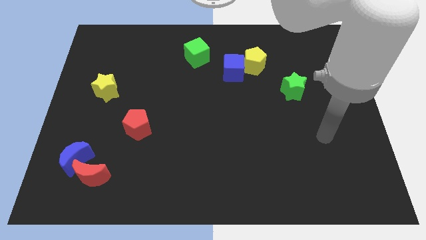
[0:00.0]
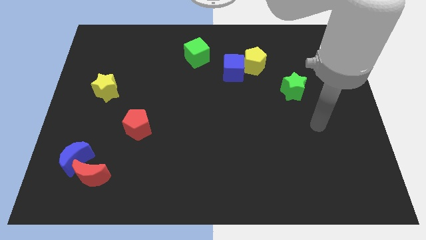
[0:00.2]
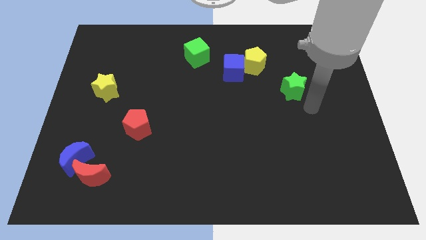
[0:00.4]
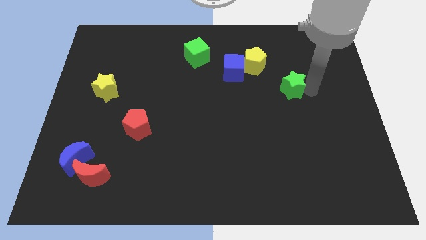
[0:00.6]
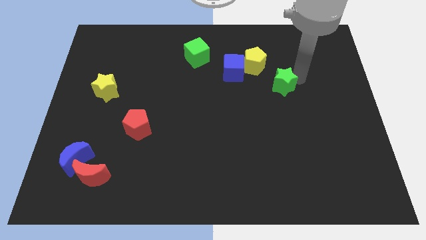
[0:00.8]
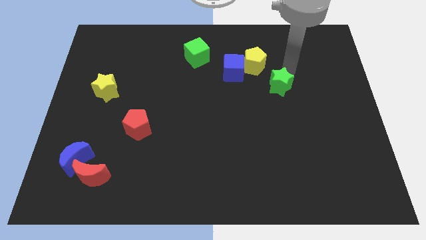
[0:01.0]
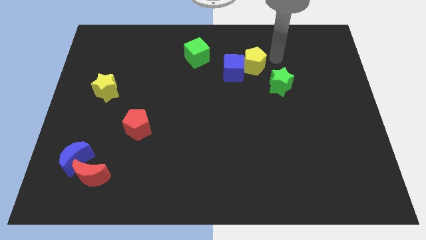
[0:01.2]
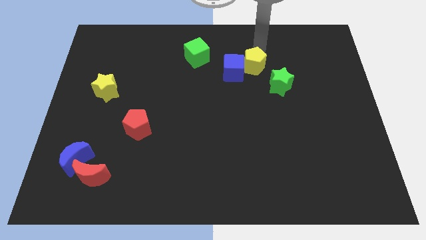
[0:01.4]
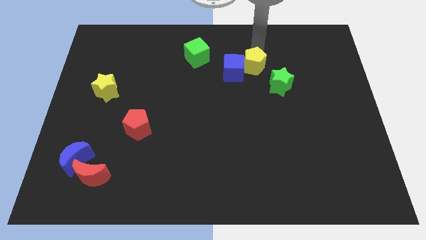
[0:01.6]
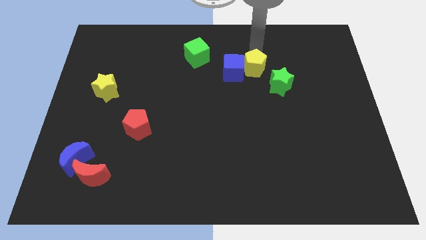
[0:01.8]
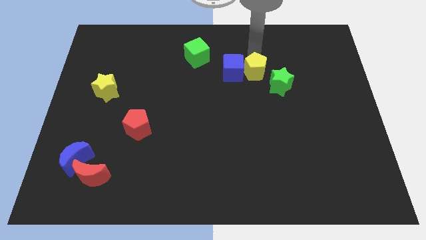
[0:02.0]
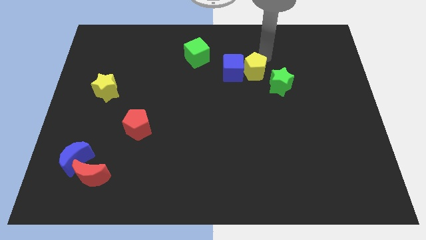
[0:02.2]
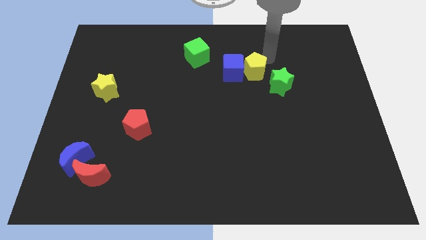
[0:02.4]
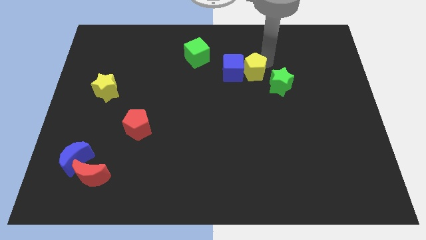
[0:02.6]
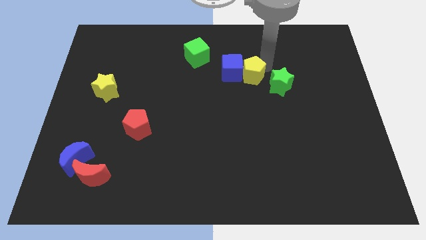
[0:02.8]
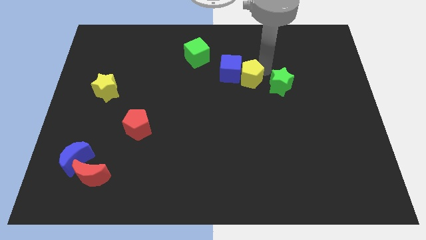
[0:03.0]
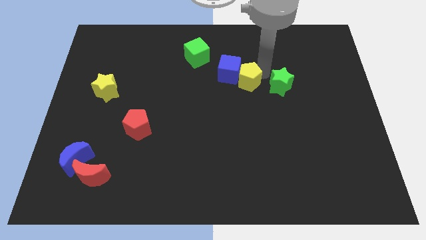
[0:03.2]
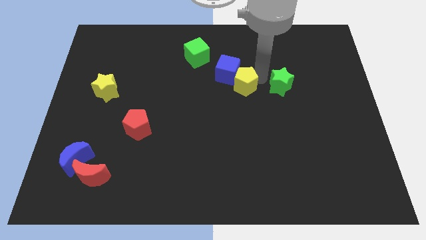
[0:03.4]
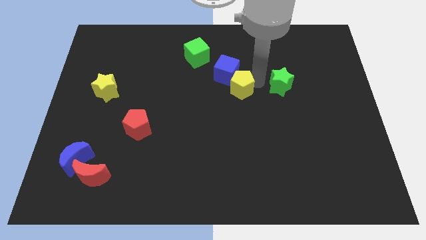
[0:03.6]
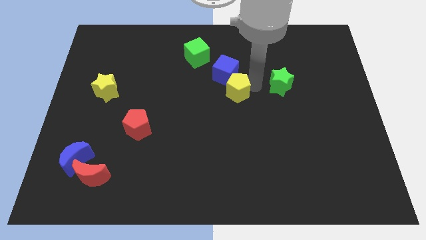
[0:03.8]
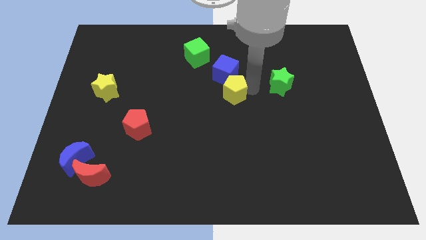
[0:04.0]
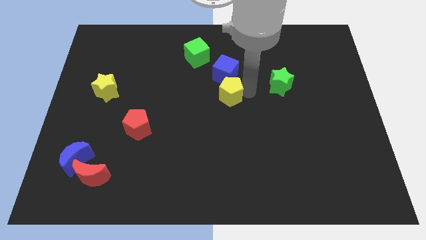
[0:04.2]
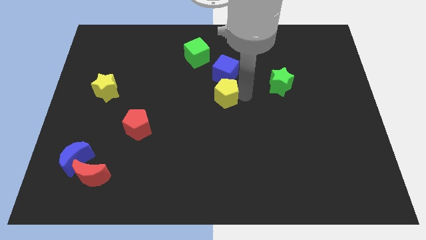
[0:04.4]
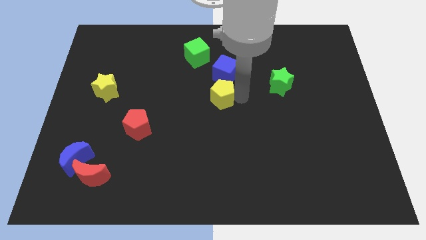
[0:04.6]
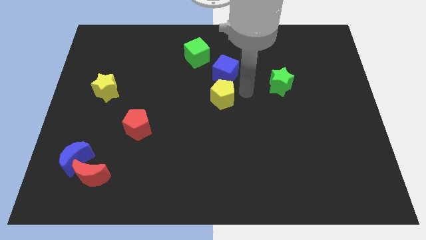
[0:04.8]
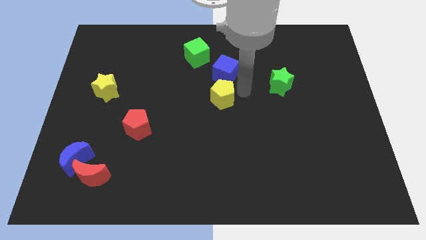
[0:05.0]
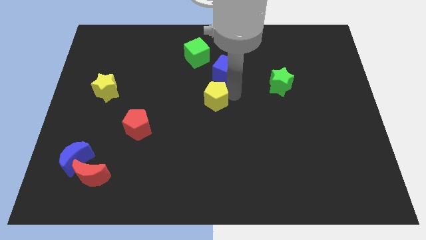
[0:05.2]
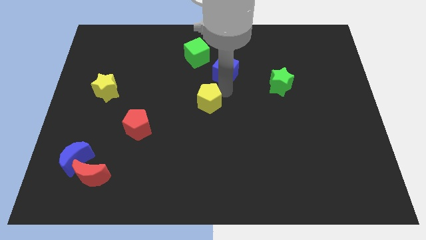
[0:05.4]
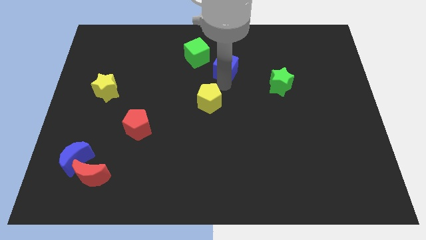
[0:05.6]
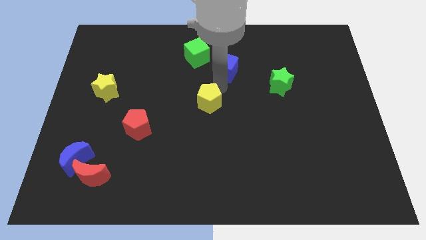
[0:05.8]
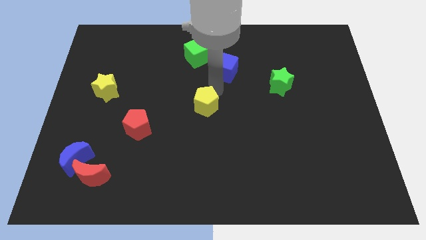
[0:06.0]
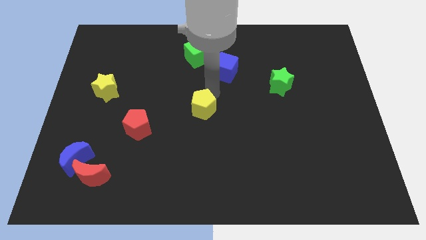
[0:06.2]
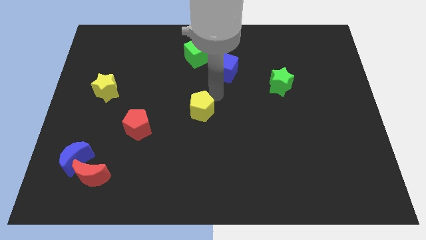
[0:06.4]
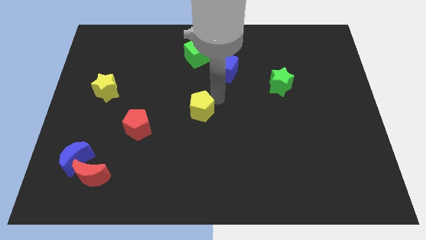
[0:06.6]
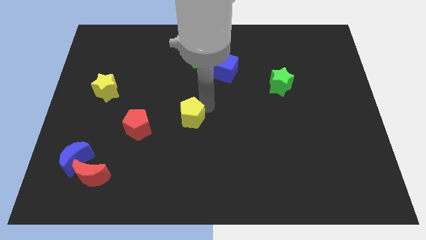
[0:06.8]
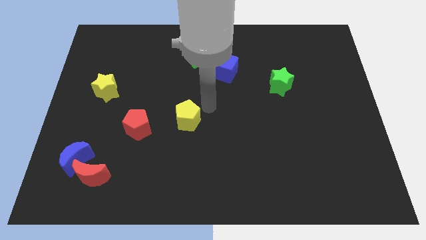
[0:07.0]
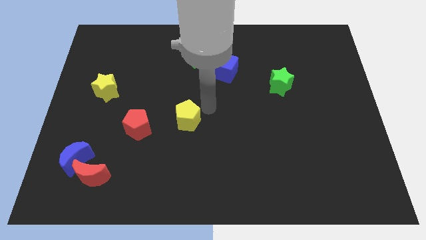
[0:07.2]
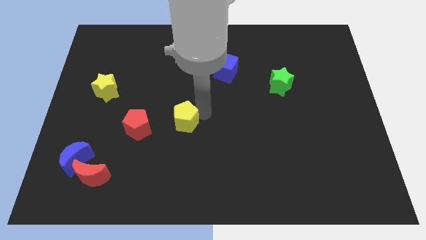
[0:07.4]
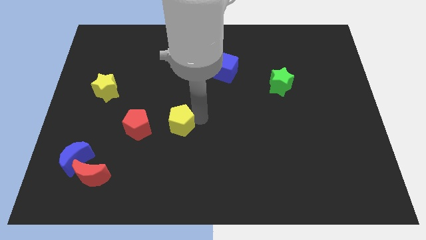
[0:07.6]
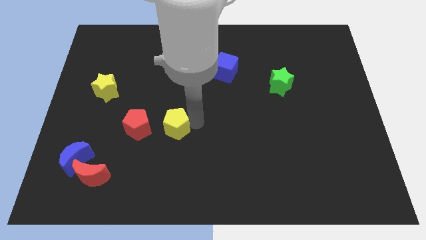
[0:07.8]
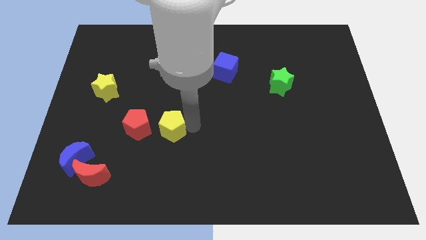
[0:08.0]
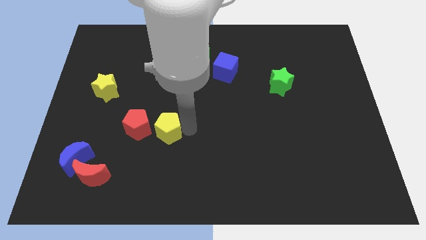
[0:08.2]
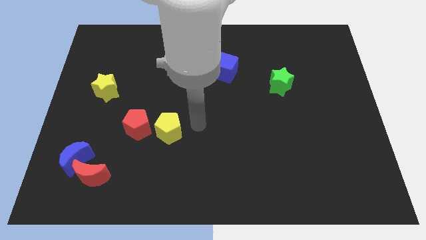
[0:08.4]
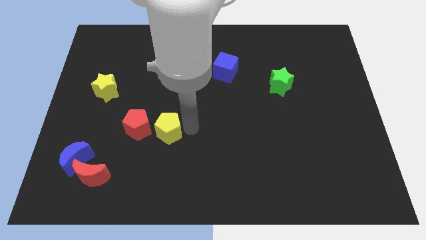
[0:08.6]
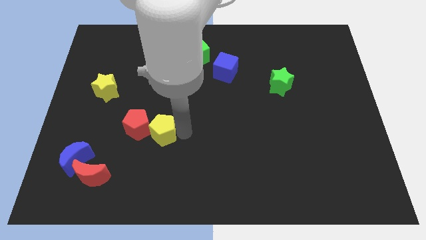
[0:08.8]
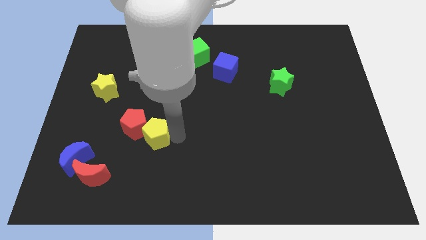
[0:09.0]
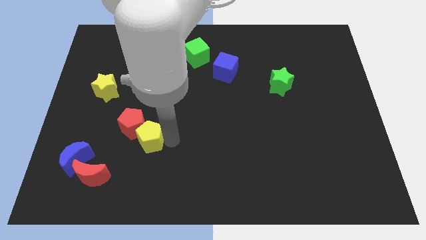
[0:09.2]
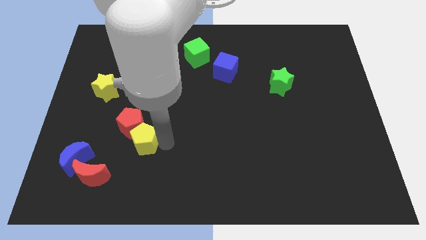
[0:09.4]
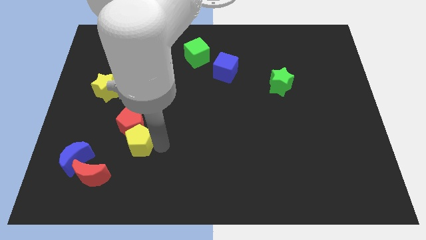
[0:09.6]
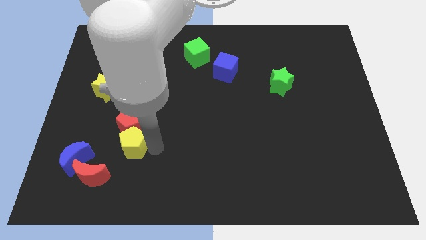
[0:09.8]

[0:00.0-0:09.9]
slide the yellow pentagon diagonally down and to the left of the red pentagon

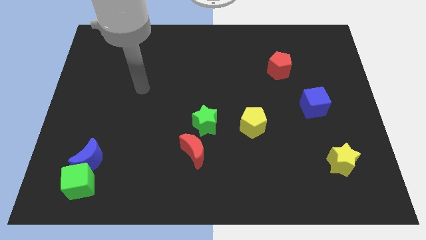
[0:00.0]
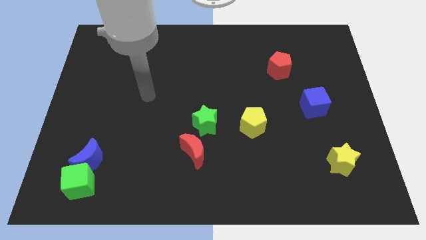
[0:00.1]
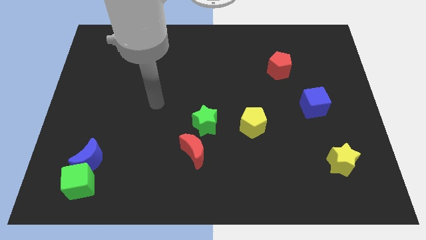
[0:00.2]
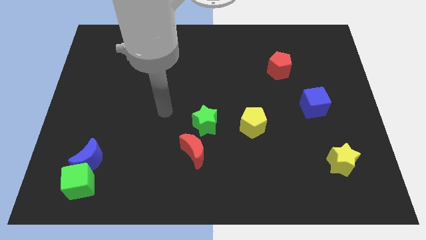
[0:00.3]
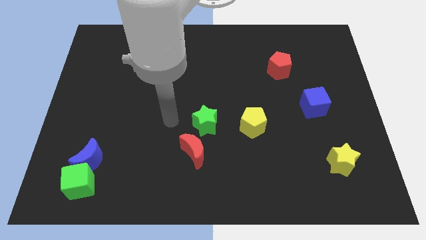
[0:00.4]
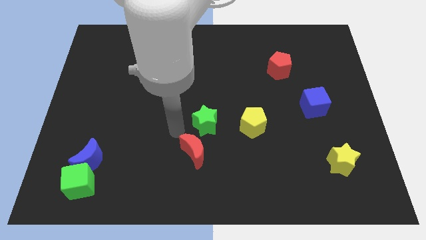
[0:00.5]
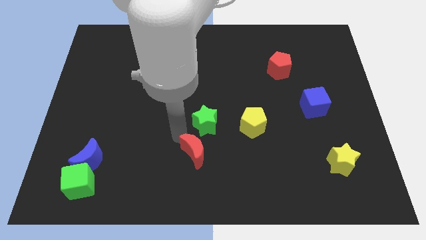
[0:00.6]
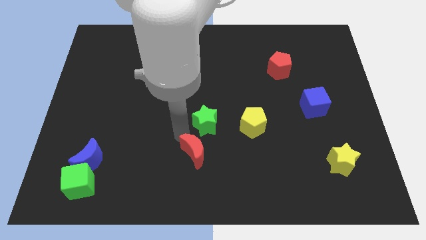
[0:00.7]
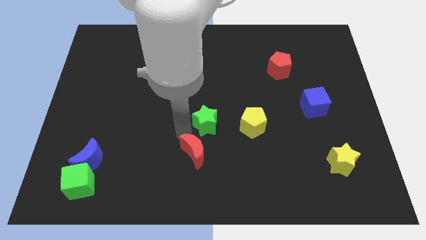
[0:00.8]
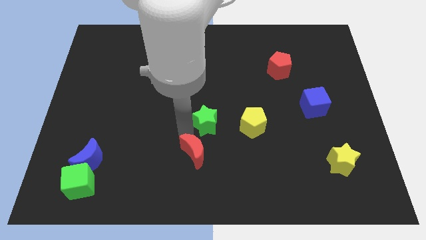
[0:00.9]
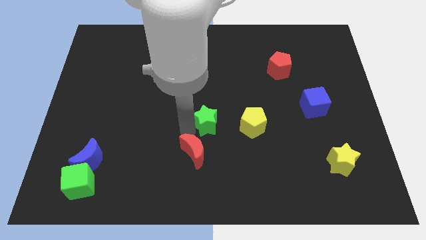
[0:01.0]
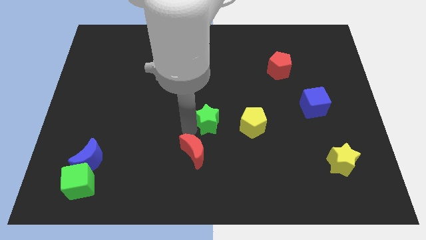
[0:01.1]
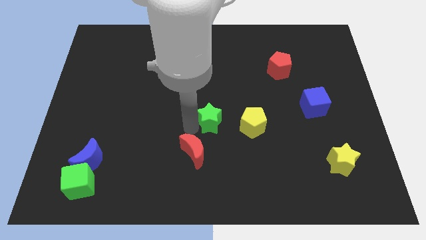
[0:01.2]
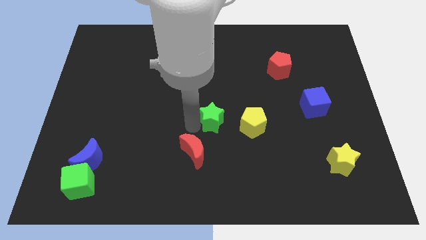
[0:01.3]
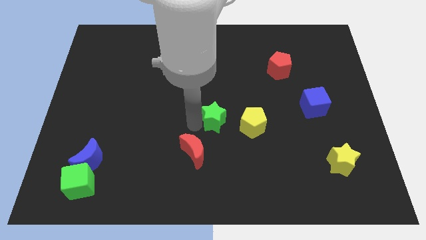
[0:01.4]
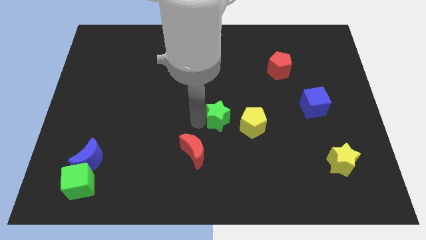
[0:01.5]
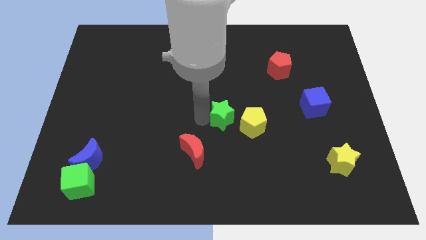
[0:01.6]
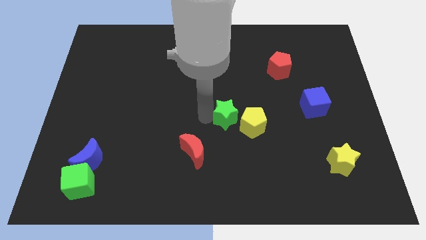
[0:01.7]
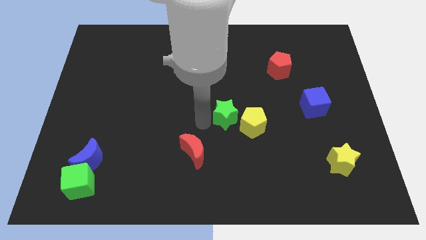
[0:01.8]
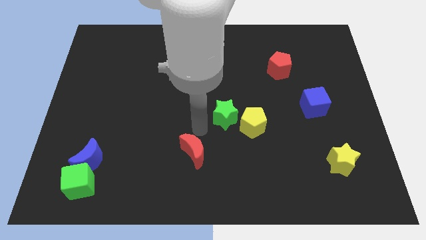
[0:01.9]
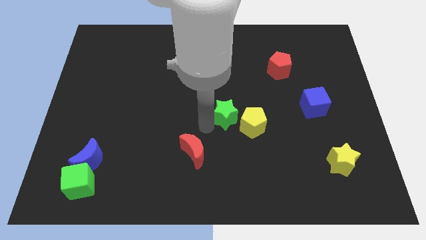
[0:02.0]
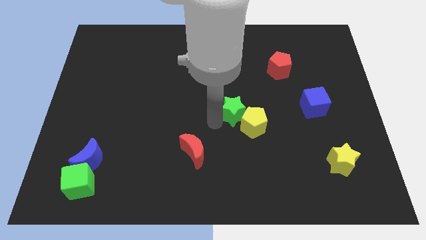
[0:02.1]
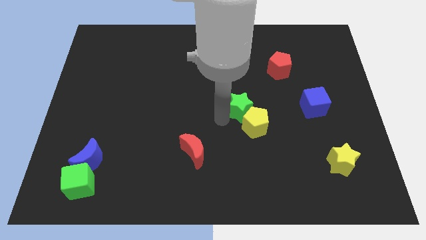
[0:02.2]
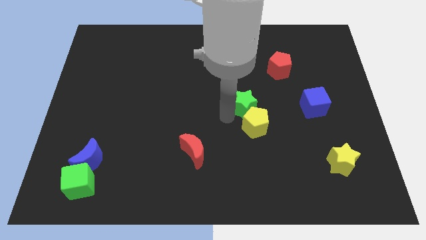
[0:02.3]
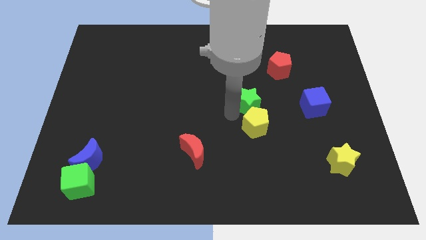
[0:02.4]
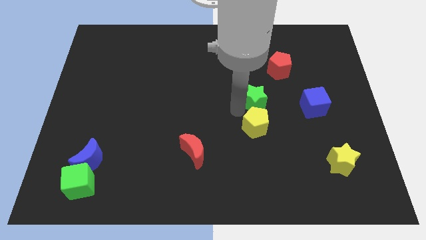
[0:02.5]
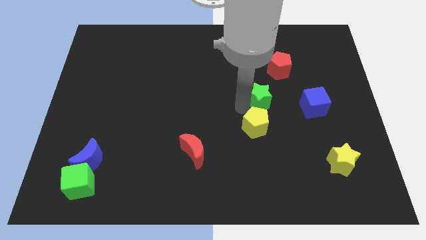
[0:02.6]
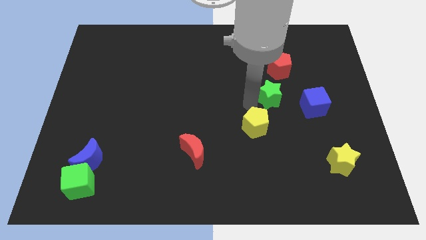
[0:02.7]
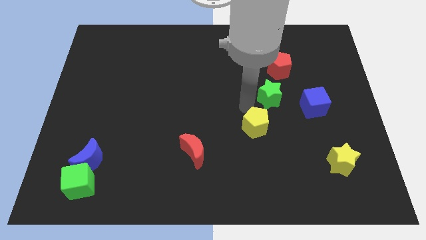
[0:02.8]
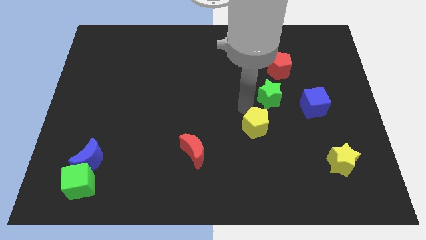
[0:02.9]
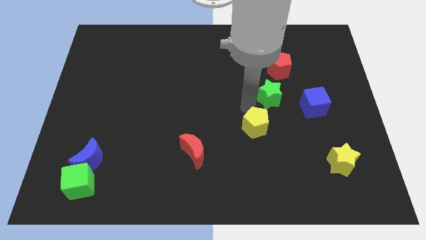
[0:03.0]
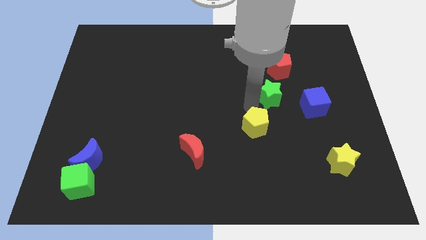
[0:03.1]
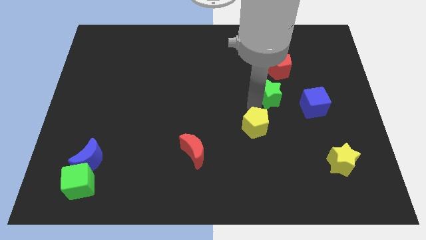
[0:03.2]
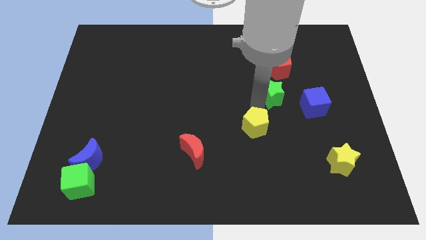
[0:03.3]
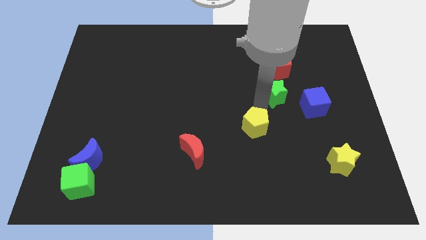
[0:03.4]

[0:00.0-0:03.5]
slide the green star to the top left side of the blue cube
